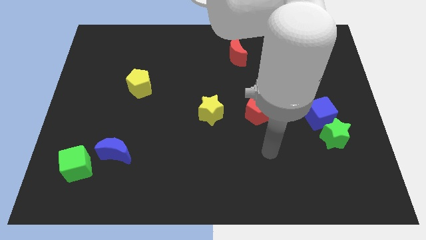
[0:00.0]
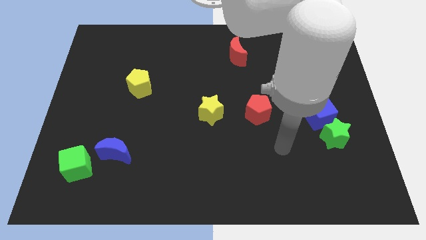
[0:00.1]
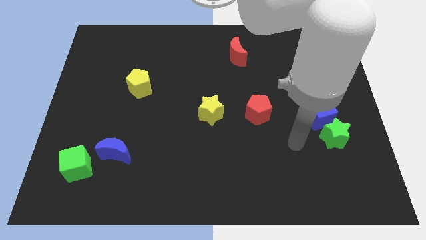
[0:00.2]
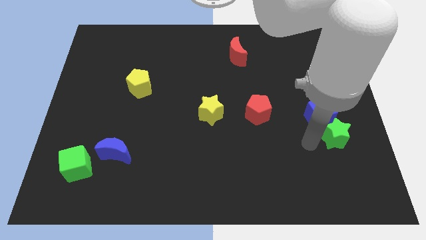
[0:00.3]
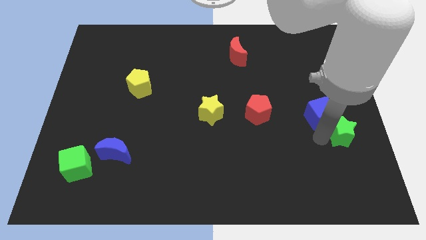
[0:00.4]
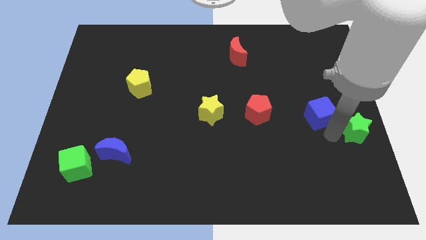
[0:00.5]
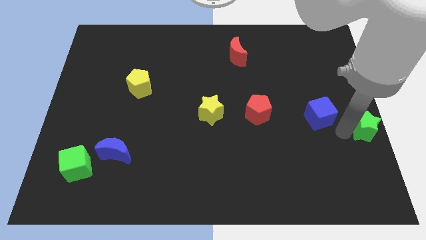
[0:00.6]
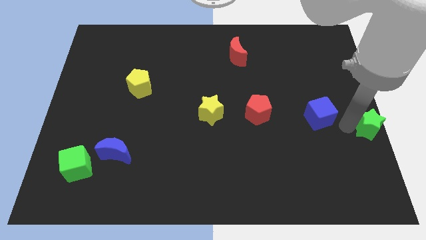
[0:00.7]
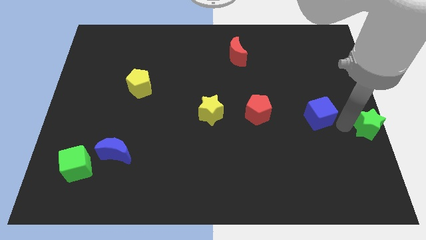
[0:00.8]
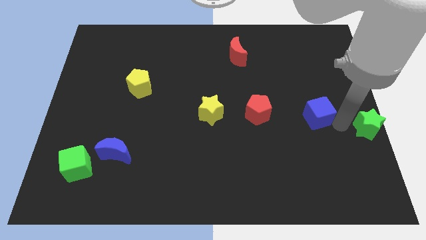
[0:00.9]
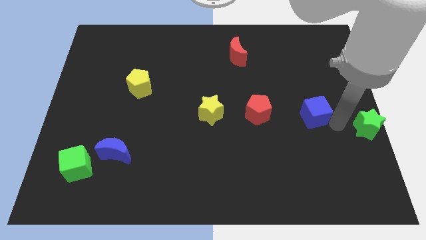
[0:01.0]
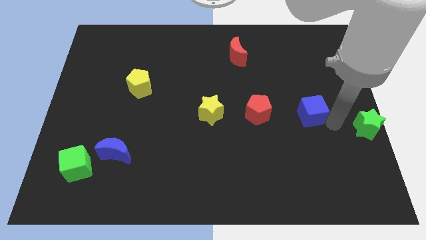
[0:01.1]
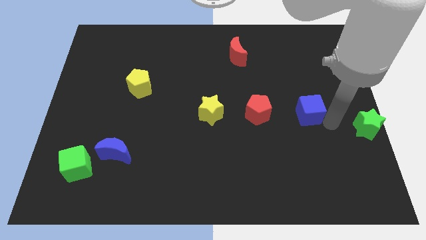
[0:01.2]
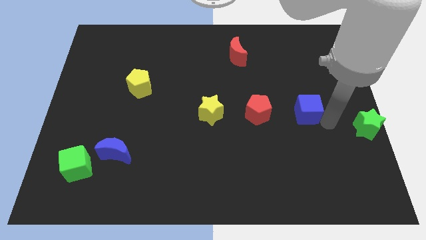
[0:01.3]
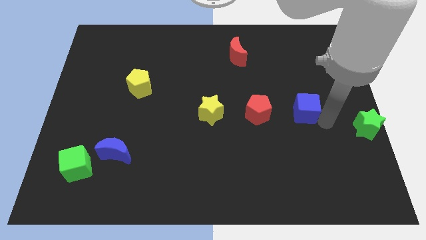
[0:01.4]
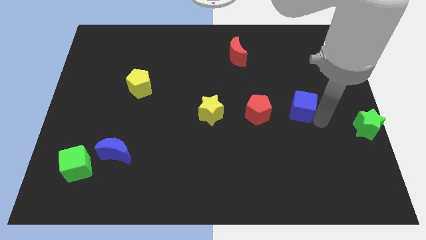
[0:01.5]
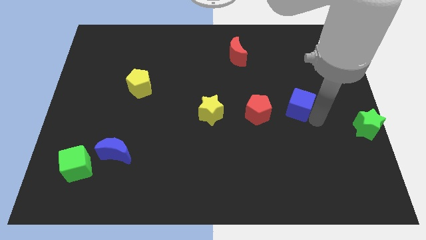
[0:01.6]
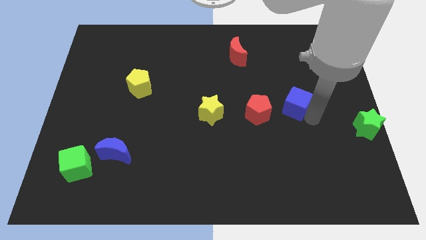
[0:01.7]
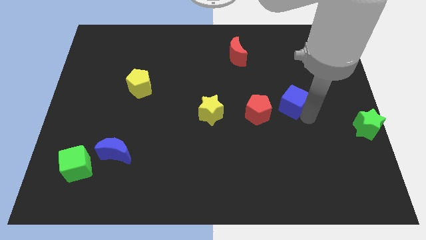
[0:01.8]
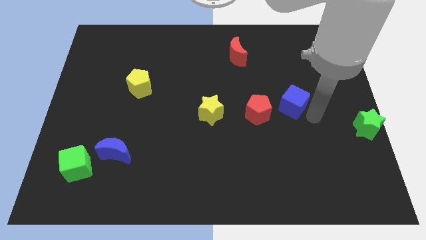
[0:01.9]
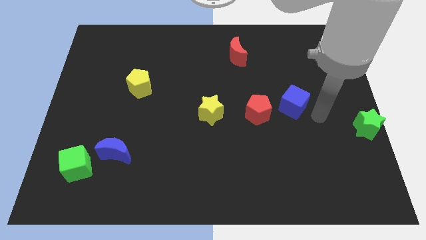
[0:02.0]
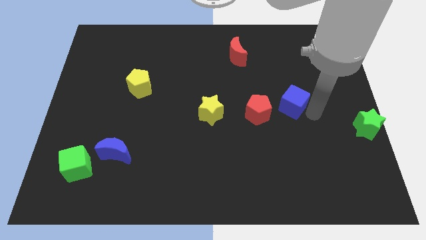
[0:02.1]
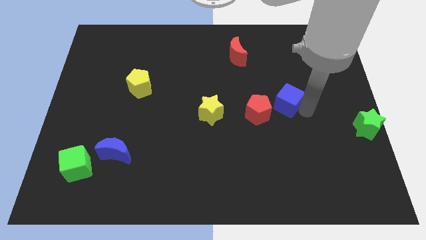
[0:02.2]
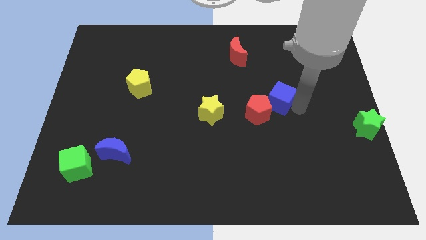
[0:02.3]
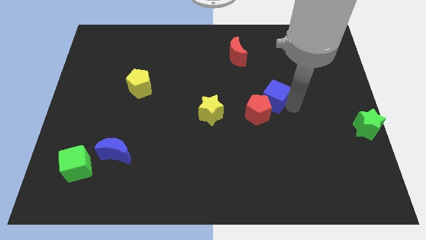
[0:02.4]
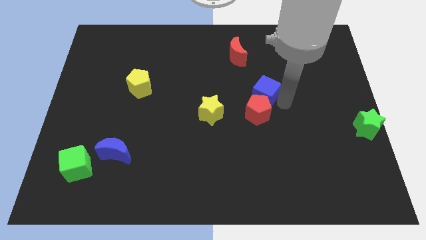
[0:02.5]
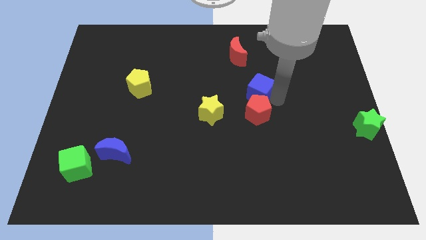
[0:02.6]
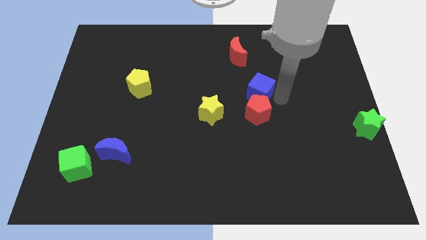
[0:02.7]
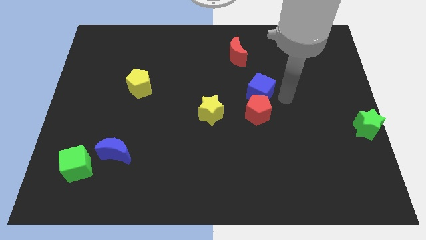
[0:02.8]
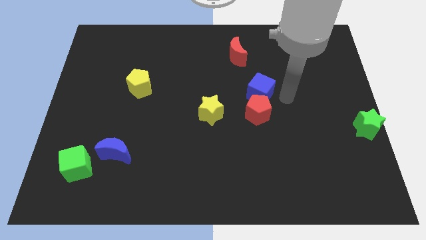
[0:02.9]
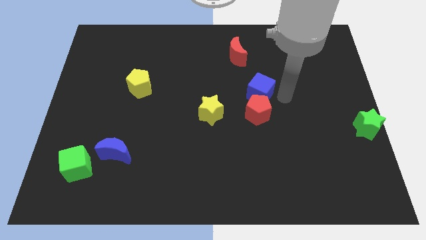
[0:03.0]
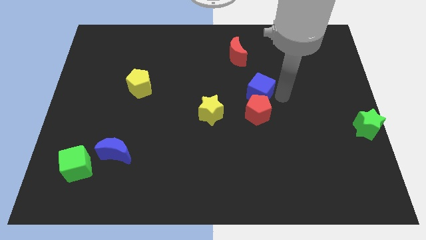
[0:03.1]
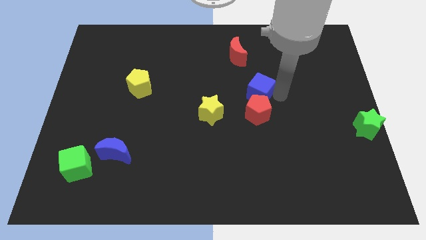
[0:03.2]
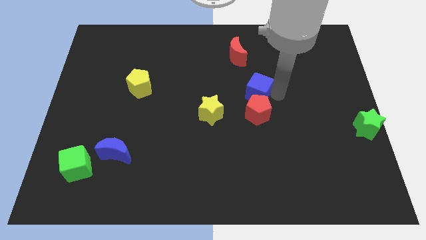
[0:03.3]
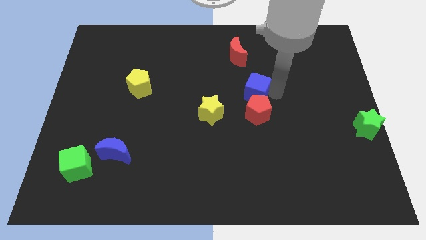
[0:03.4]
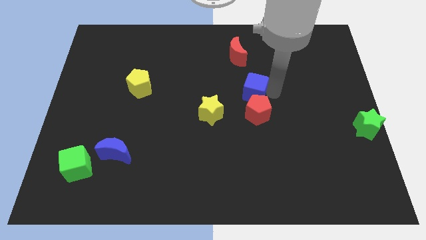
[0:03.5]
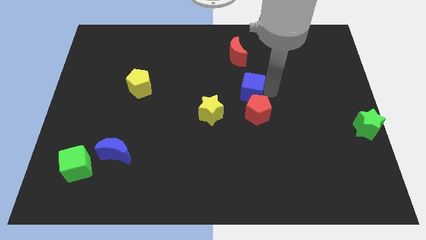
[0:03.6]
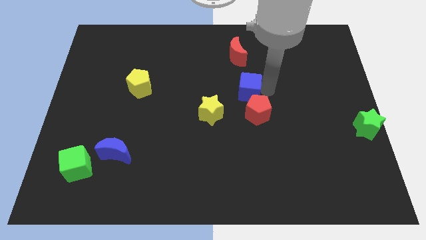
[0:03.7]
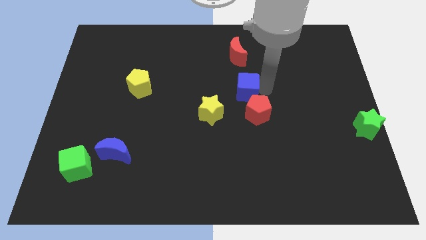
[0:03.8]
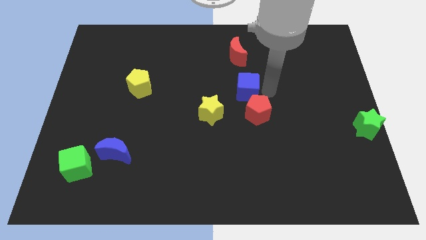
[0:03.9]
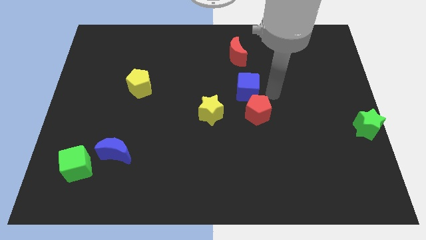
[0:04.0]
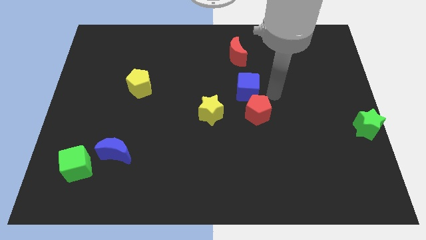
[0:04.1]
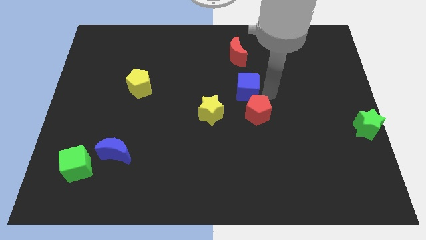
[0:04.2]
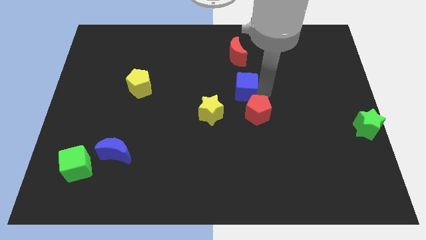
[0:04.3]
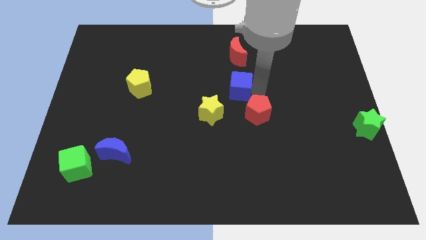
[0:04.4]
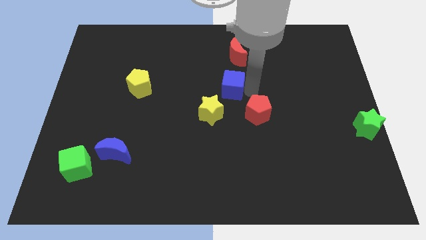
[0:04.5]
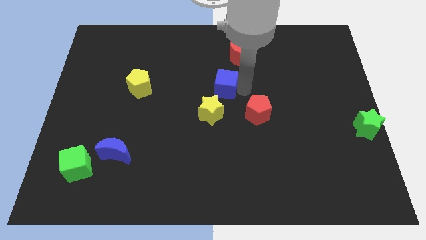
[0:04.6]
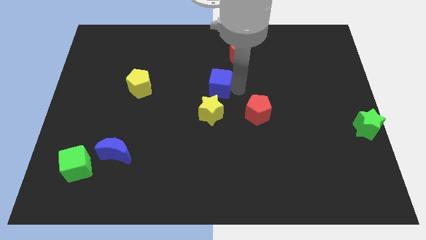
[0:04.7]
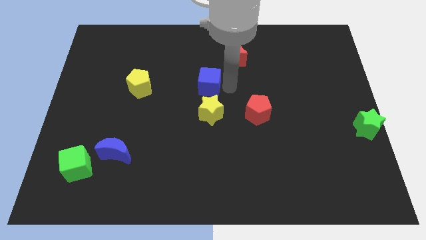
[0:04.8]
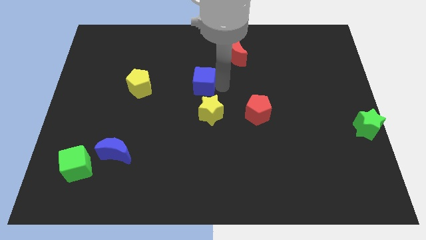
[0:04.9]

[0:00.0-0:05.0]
put the blue cube right of the yellow pentagon

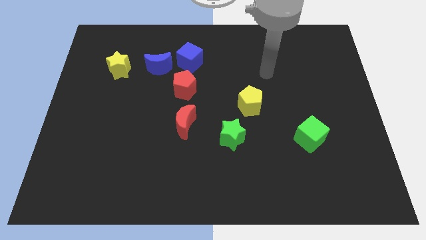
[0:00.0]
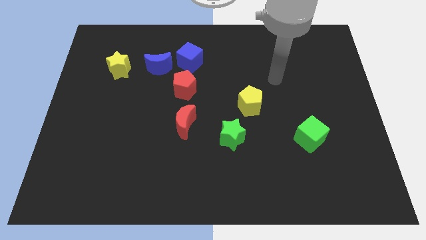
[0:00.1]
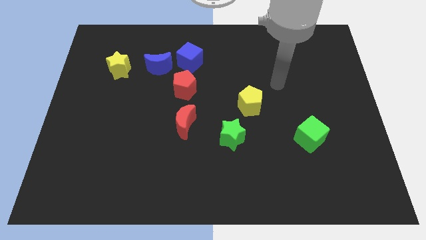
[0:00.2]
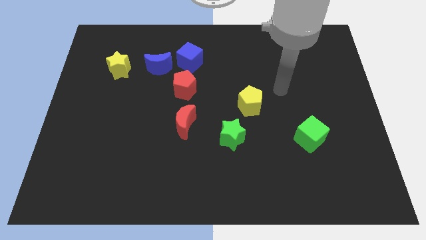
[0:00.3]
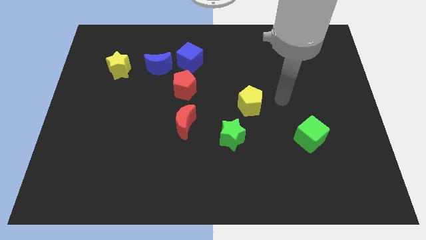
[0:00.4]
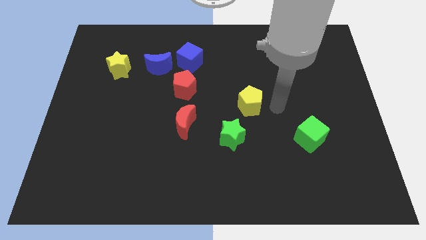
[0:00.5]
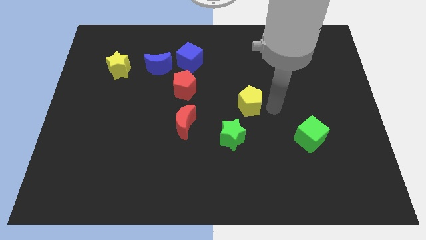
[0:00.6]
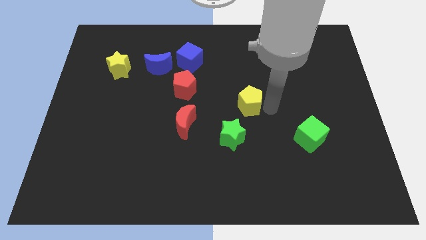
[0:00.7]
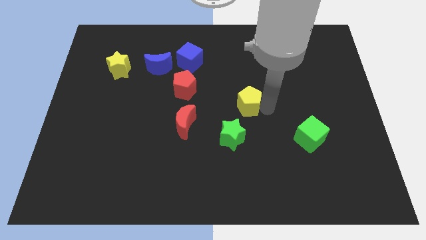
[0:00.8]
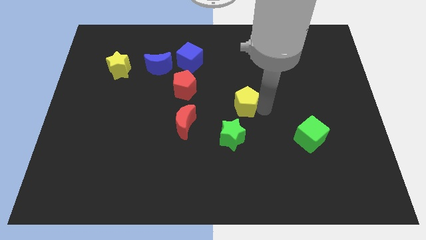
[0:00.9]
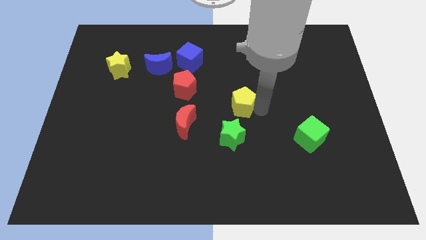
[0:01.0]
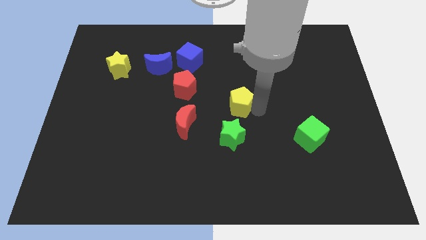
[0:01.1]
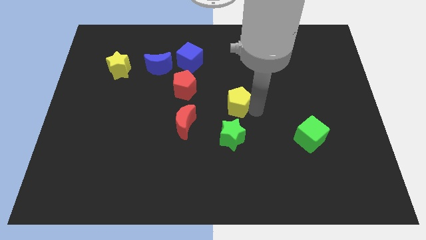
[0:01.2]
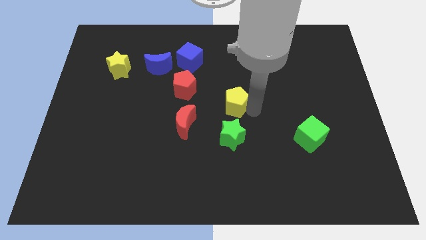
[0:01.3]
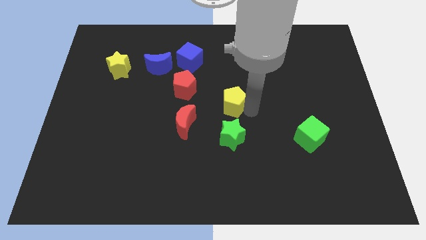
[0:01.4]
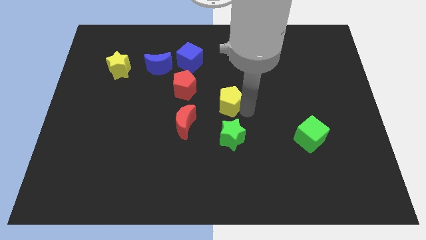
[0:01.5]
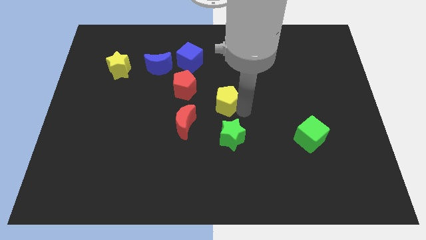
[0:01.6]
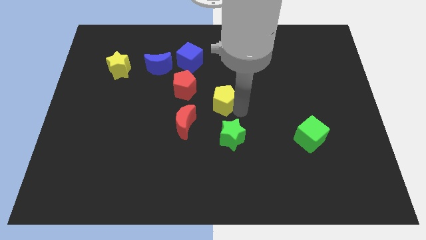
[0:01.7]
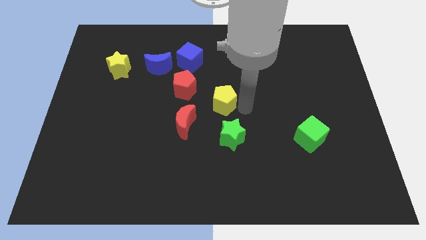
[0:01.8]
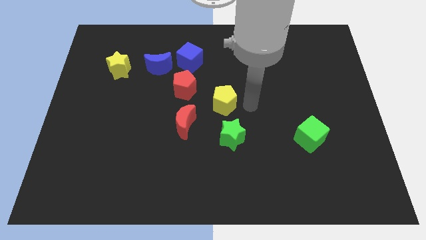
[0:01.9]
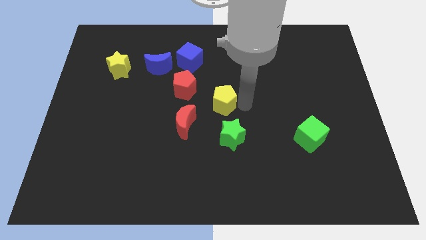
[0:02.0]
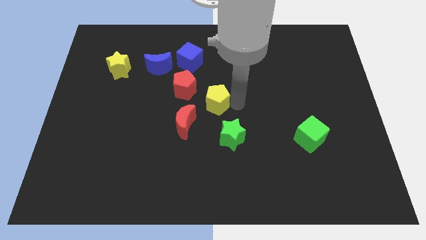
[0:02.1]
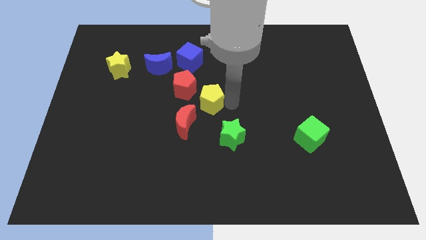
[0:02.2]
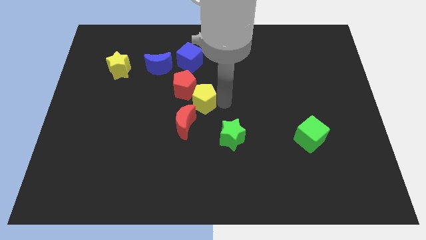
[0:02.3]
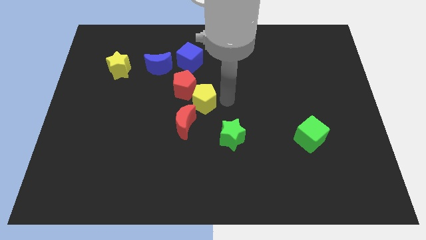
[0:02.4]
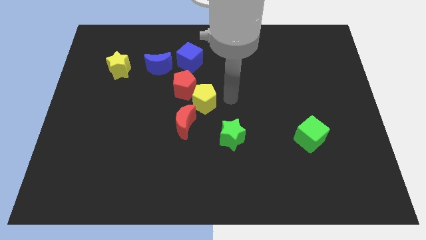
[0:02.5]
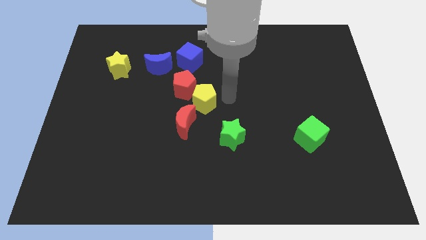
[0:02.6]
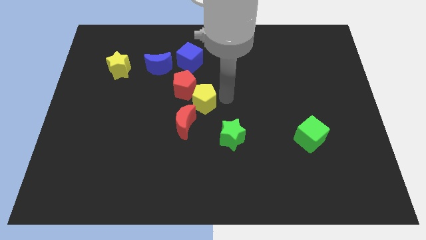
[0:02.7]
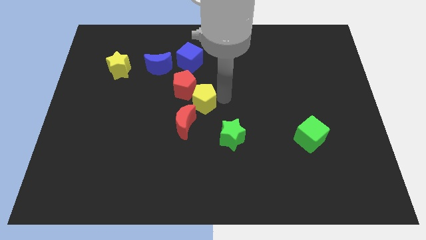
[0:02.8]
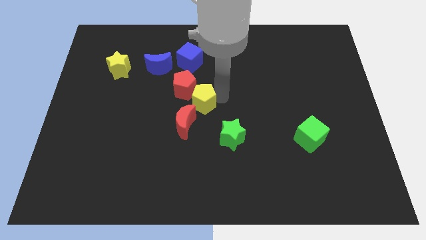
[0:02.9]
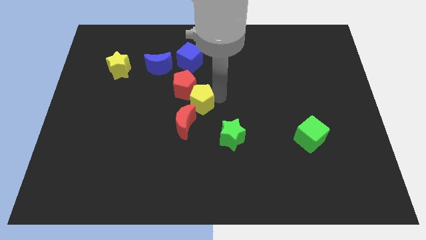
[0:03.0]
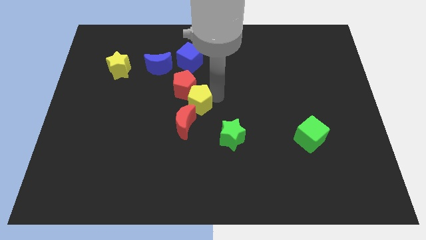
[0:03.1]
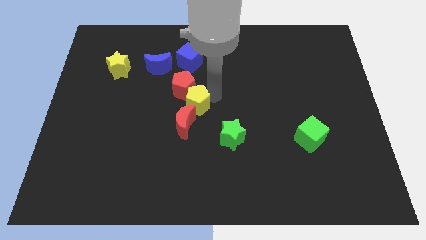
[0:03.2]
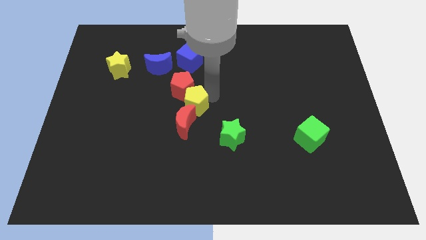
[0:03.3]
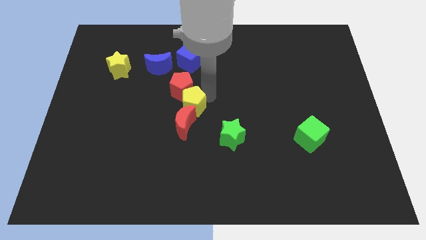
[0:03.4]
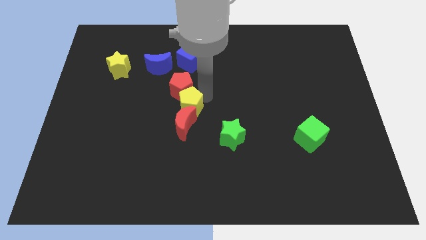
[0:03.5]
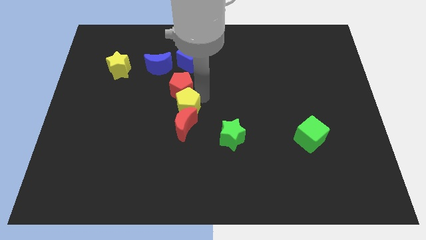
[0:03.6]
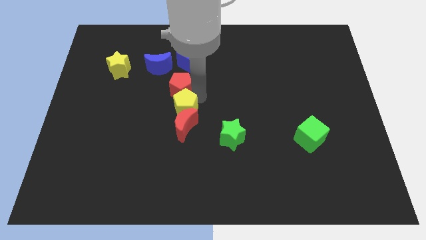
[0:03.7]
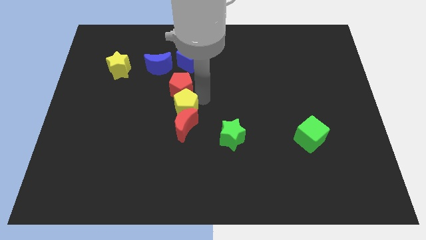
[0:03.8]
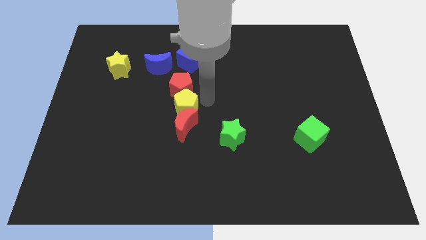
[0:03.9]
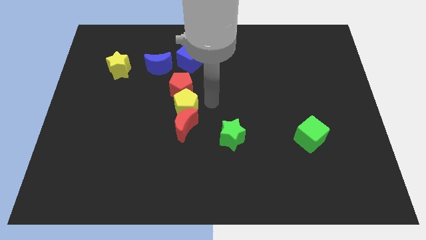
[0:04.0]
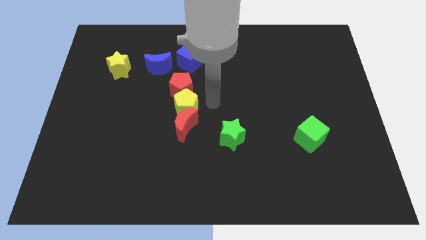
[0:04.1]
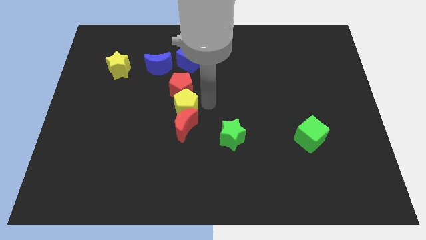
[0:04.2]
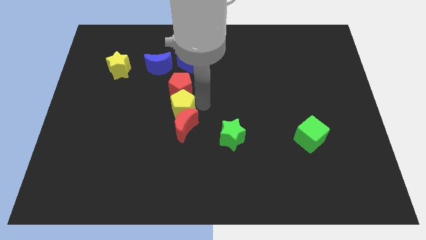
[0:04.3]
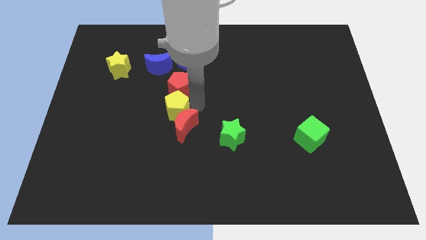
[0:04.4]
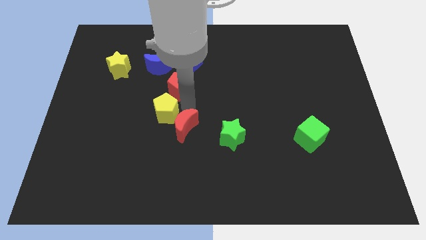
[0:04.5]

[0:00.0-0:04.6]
move the yellow pentagon to the left side of the red moon
